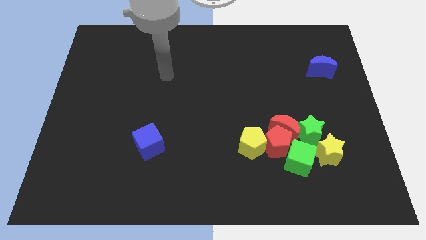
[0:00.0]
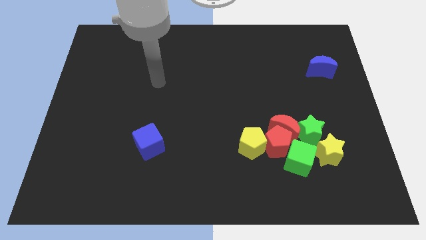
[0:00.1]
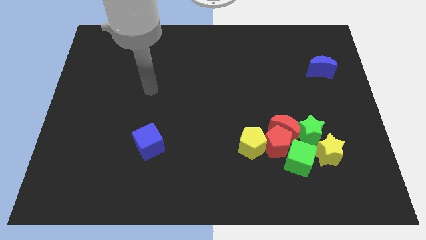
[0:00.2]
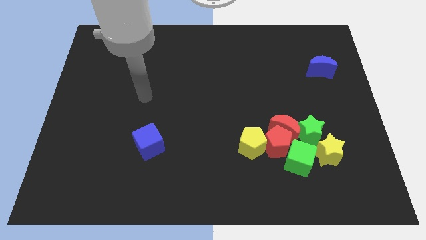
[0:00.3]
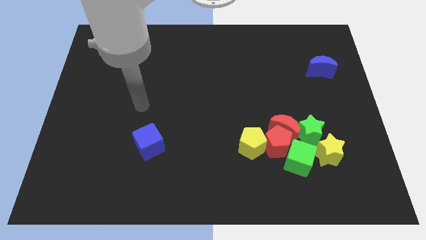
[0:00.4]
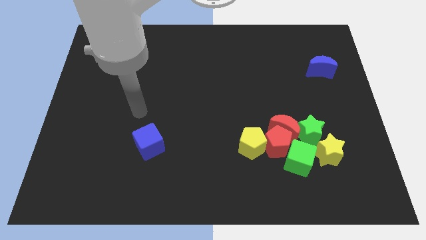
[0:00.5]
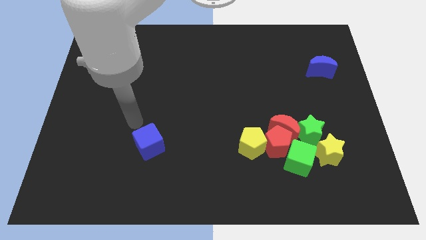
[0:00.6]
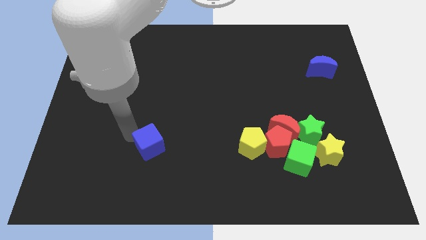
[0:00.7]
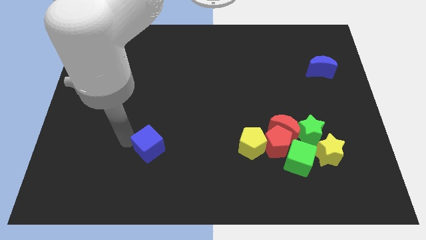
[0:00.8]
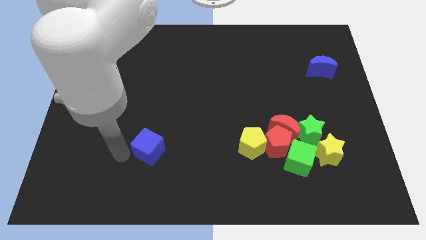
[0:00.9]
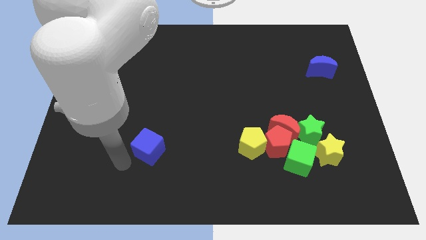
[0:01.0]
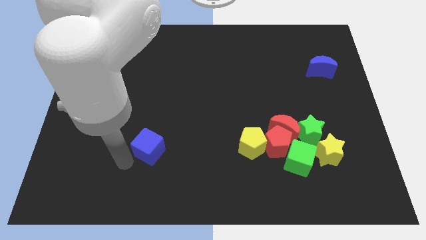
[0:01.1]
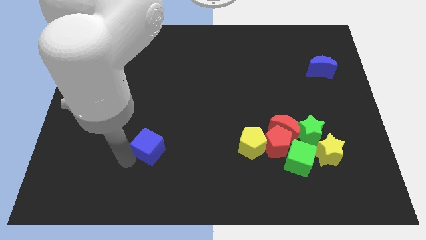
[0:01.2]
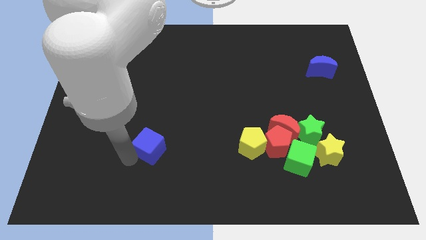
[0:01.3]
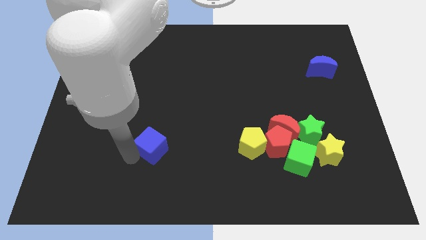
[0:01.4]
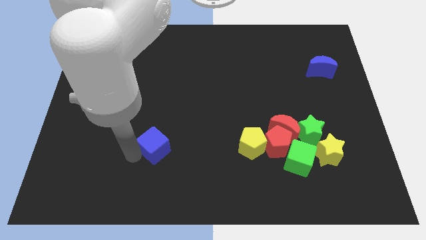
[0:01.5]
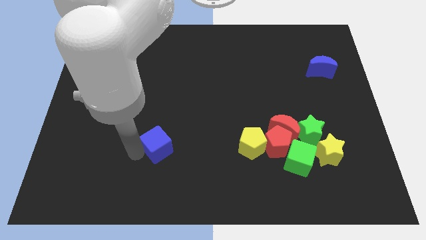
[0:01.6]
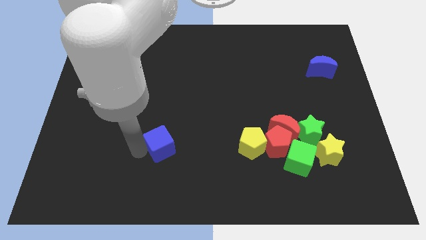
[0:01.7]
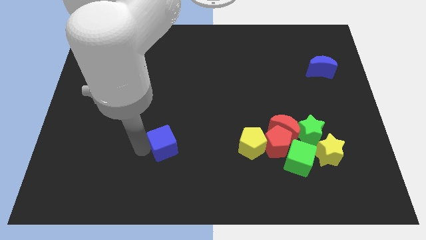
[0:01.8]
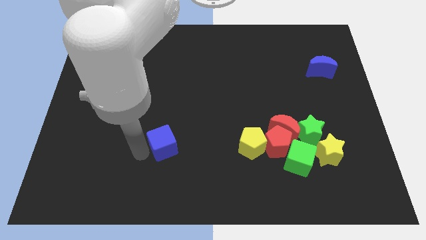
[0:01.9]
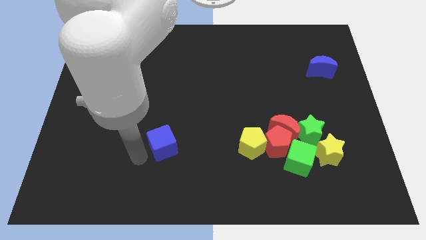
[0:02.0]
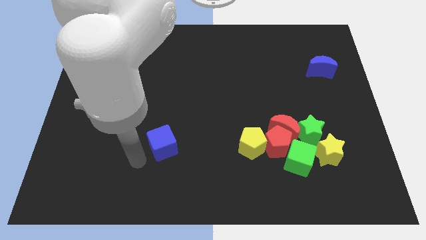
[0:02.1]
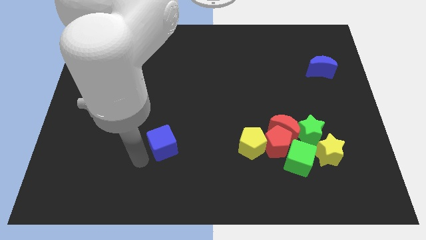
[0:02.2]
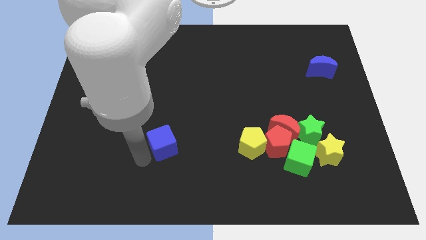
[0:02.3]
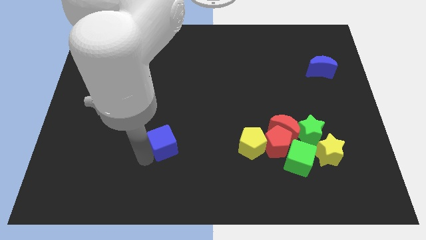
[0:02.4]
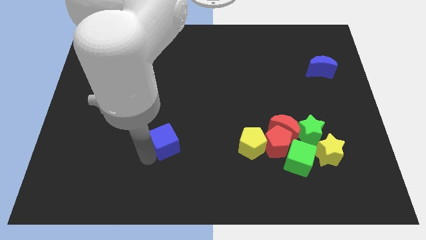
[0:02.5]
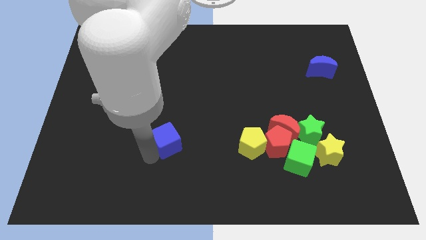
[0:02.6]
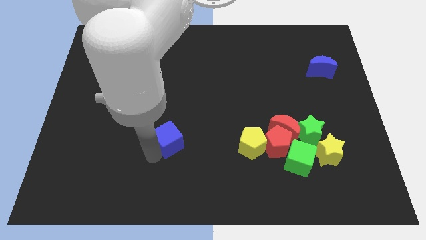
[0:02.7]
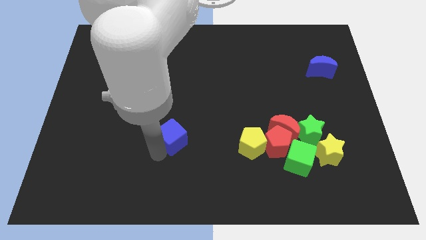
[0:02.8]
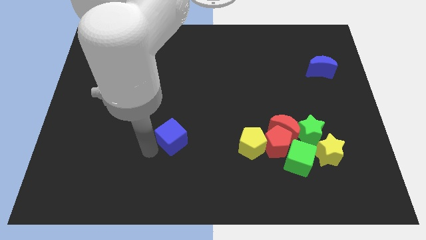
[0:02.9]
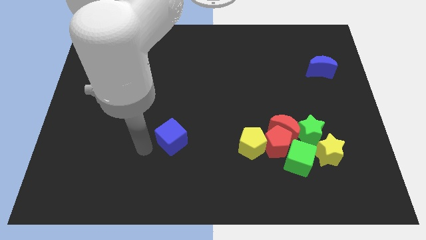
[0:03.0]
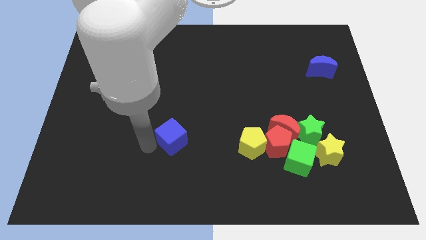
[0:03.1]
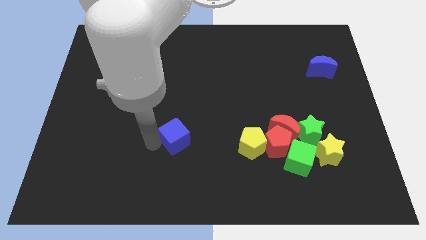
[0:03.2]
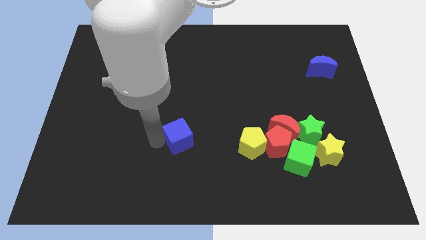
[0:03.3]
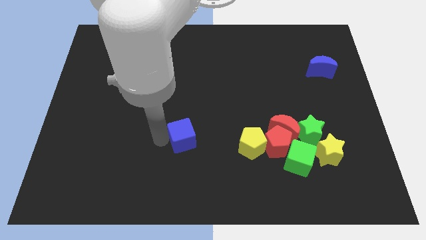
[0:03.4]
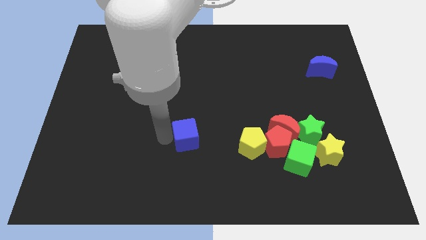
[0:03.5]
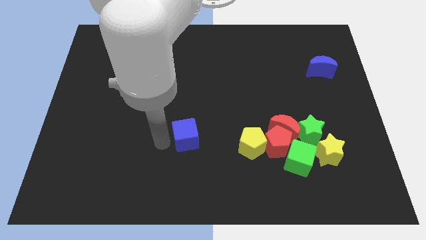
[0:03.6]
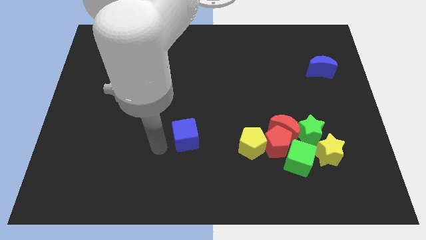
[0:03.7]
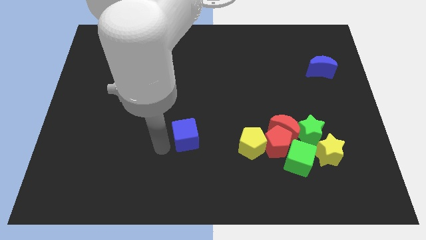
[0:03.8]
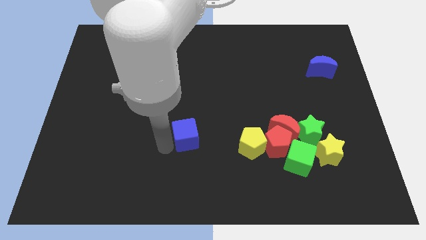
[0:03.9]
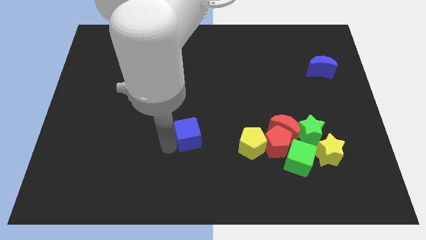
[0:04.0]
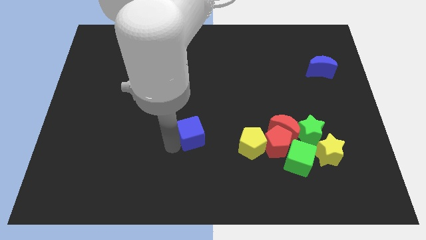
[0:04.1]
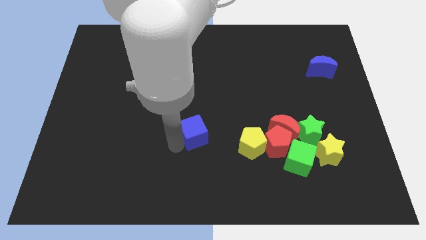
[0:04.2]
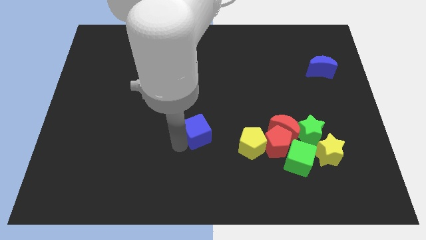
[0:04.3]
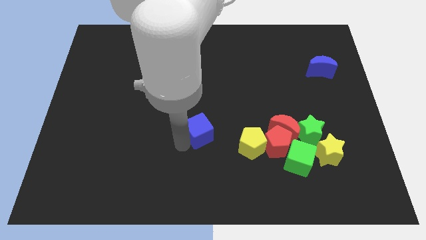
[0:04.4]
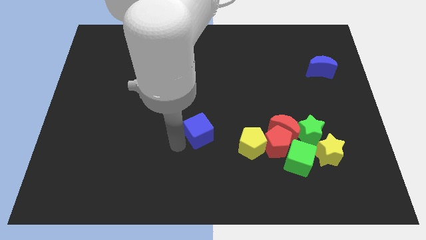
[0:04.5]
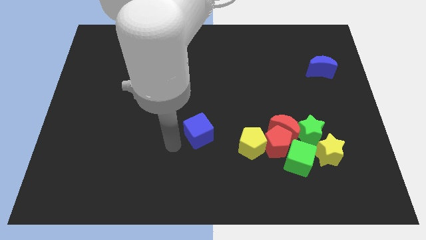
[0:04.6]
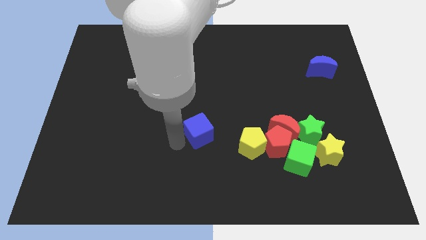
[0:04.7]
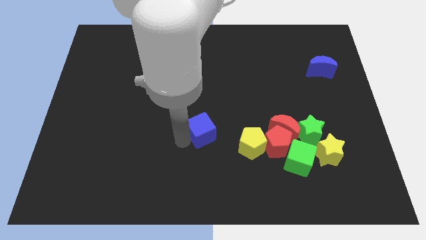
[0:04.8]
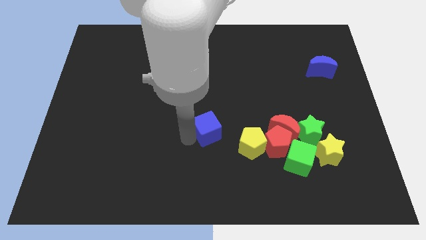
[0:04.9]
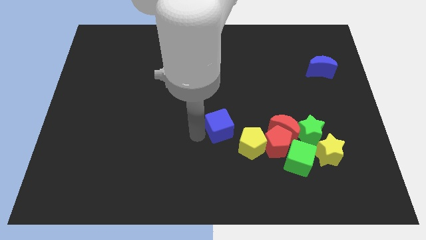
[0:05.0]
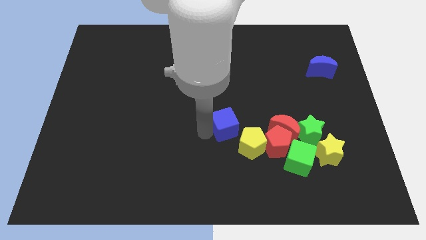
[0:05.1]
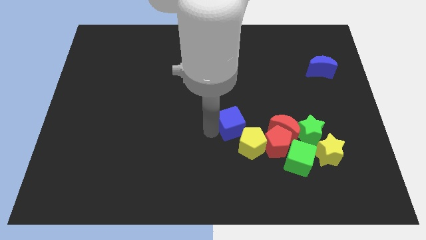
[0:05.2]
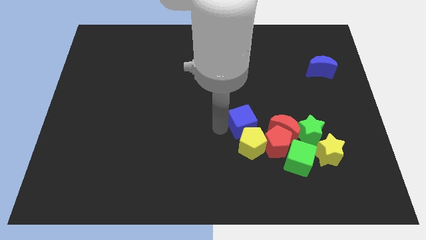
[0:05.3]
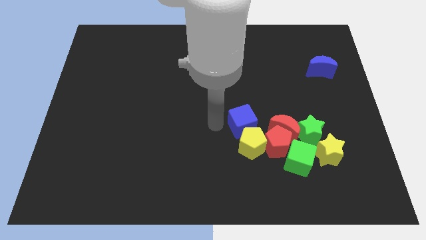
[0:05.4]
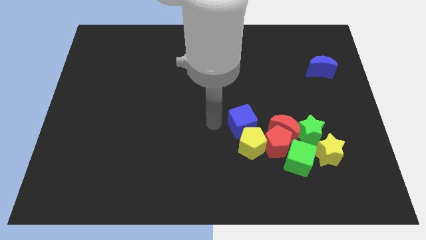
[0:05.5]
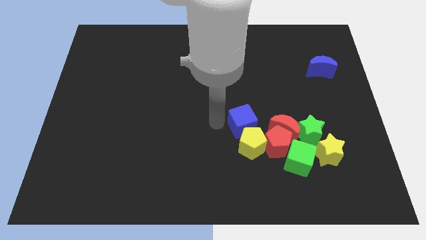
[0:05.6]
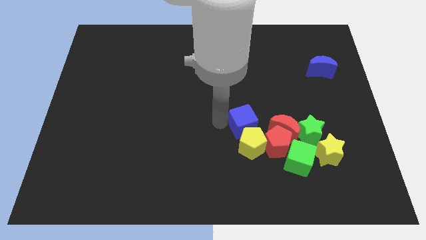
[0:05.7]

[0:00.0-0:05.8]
move the blue cube to the top right side of the yellow pentagon

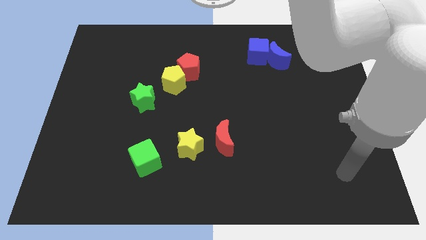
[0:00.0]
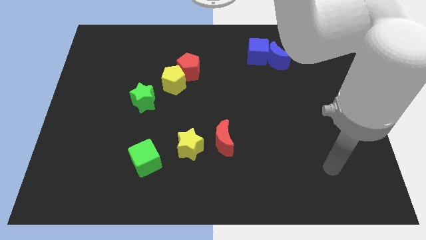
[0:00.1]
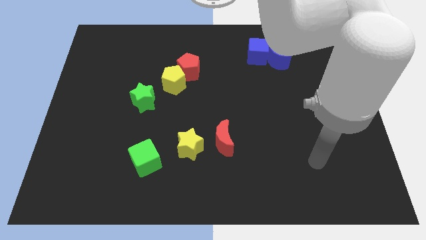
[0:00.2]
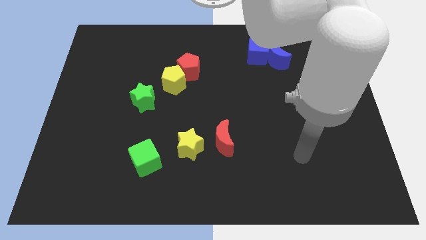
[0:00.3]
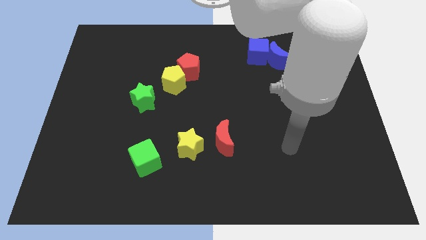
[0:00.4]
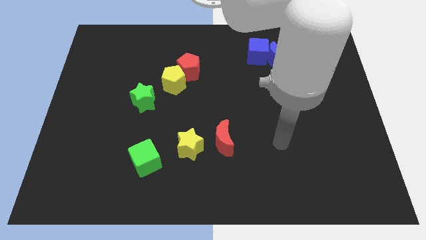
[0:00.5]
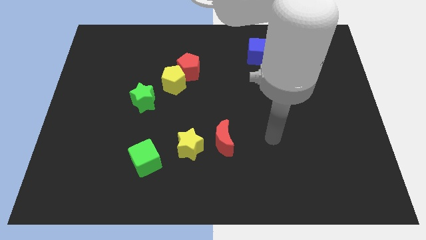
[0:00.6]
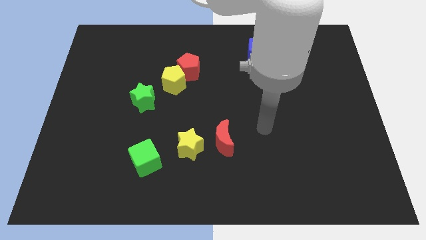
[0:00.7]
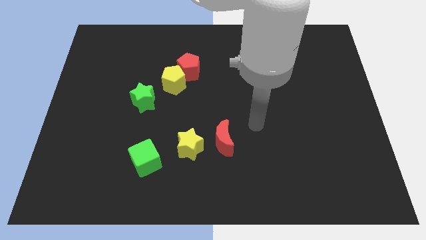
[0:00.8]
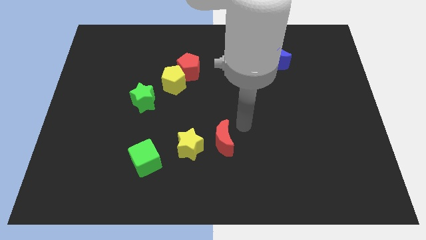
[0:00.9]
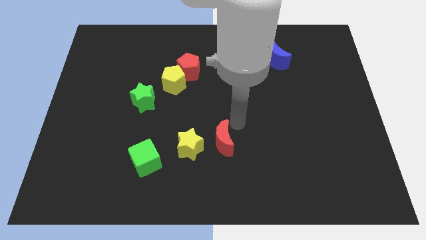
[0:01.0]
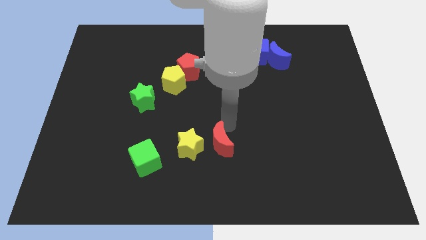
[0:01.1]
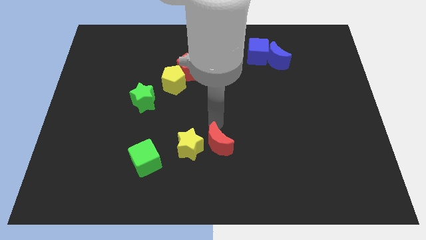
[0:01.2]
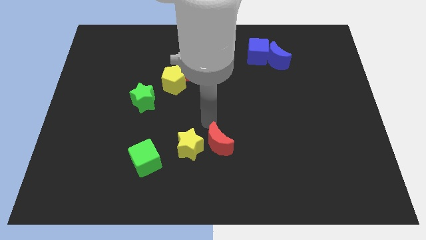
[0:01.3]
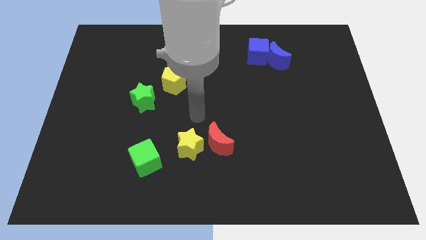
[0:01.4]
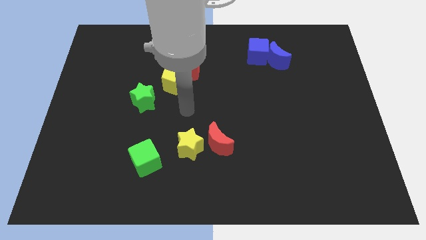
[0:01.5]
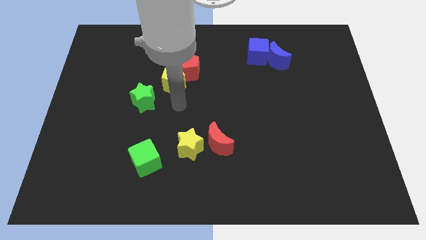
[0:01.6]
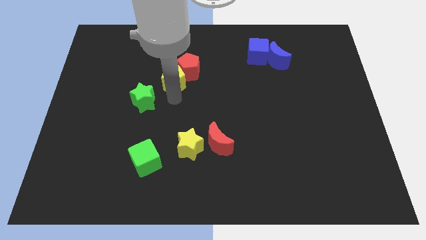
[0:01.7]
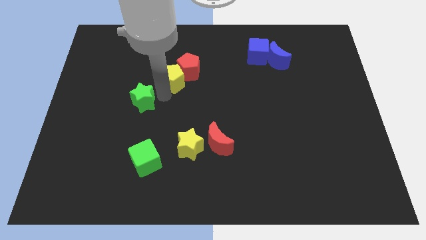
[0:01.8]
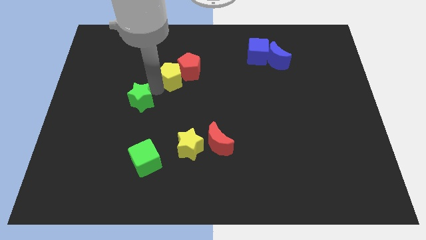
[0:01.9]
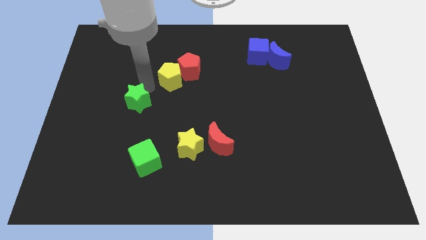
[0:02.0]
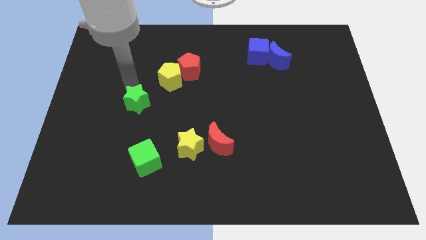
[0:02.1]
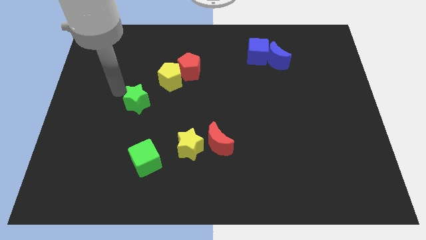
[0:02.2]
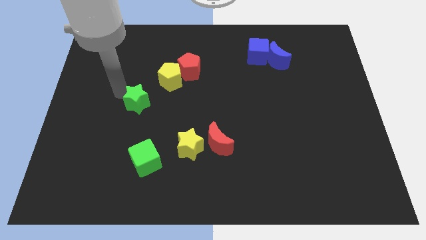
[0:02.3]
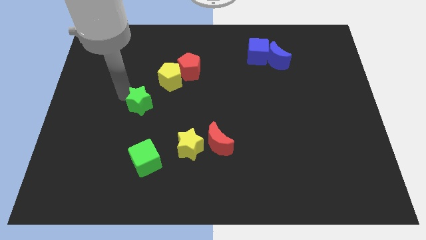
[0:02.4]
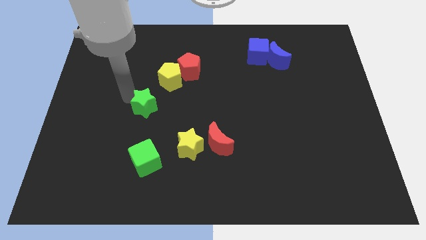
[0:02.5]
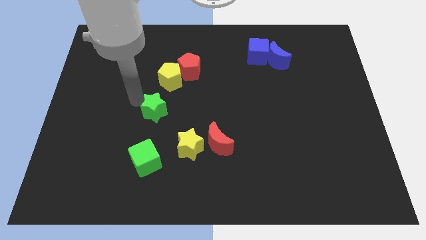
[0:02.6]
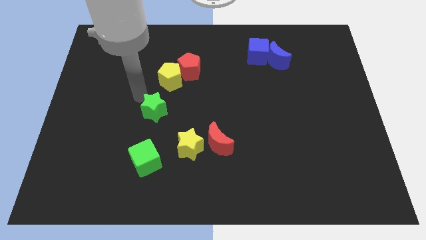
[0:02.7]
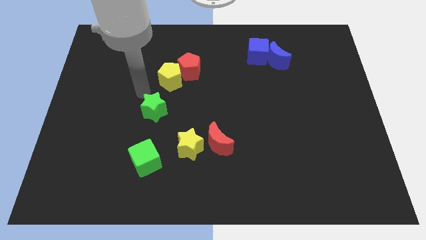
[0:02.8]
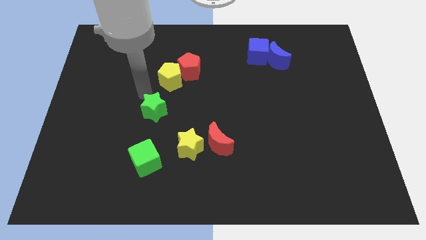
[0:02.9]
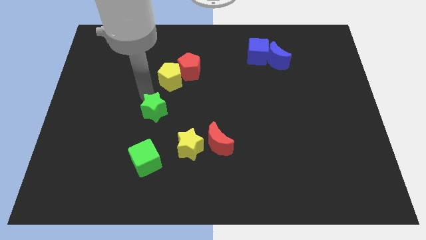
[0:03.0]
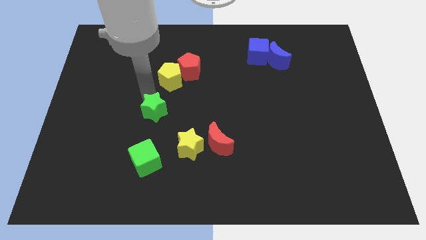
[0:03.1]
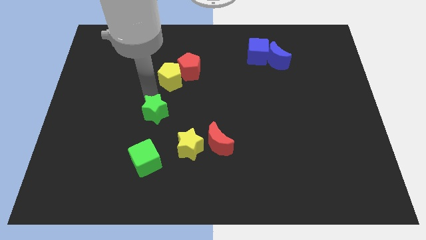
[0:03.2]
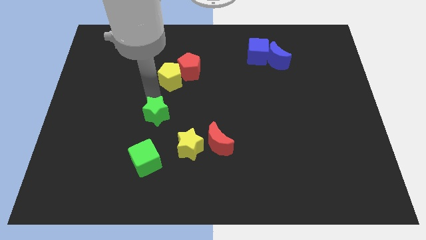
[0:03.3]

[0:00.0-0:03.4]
push the green star diagonally up and to the left of the yellow star
